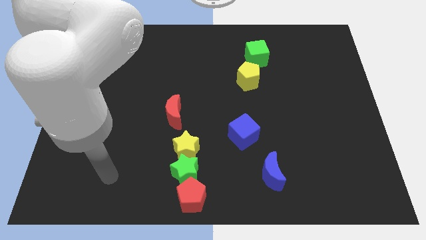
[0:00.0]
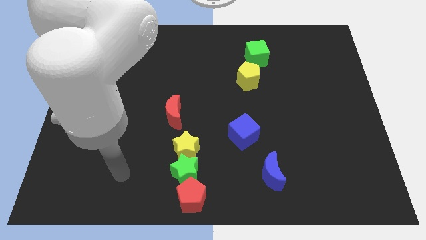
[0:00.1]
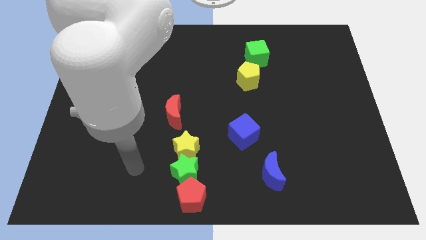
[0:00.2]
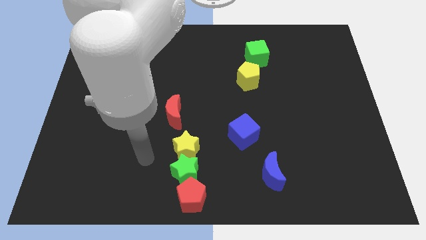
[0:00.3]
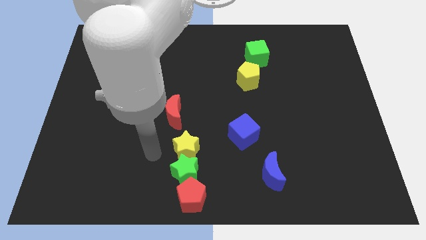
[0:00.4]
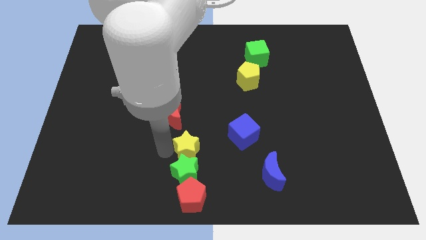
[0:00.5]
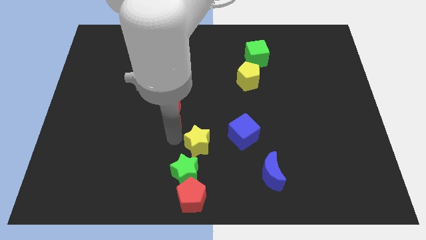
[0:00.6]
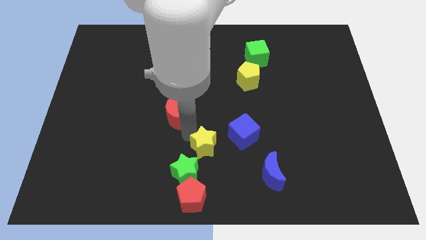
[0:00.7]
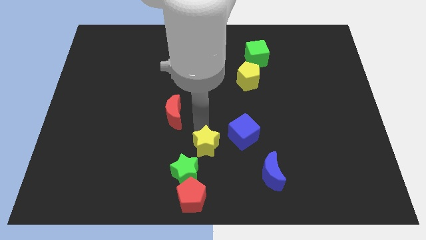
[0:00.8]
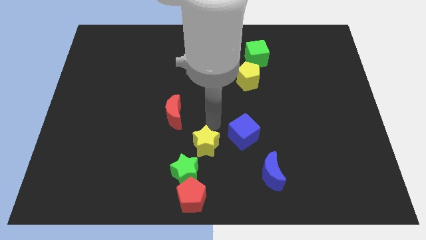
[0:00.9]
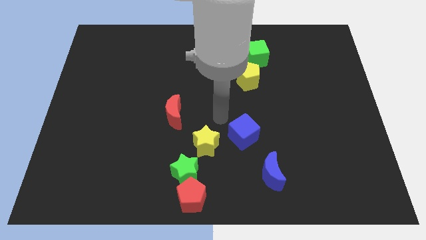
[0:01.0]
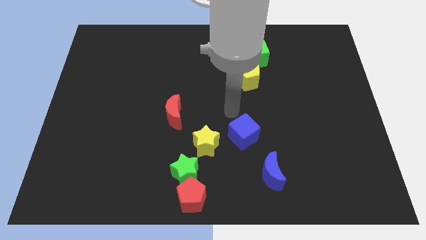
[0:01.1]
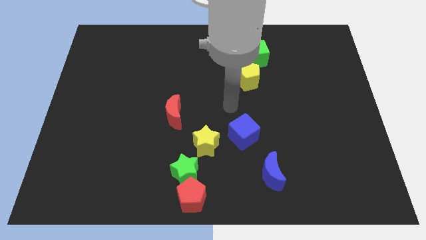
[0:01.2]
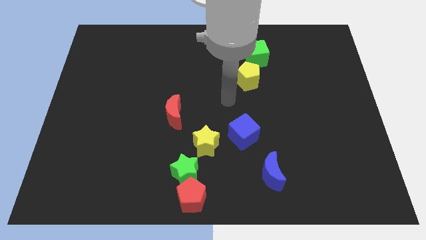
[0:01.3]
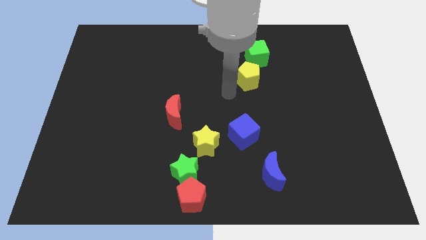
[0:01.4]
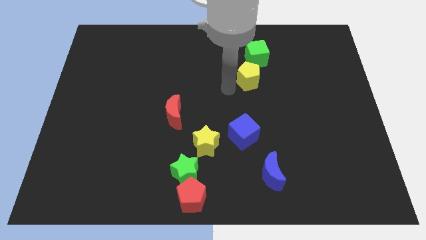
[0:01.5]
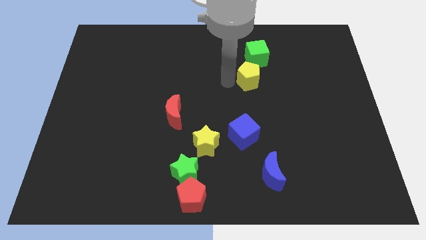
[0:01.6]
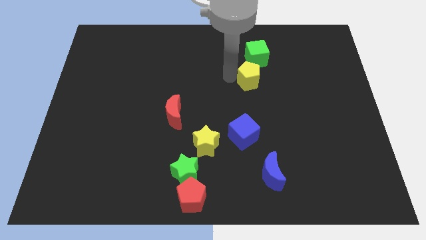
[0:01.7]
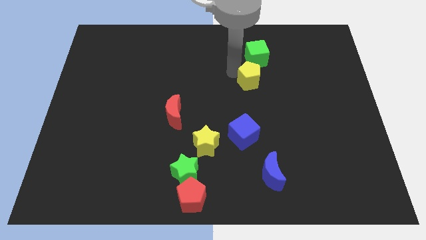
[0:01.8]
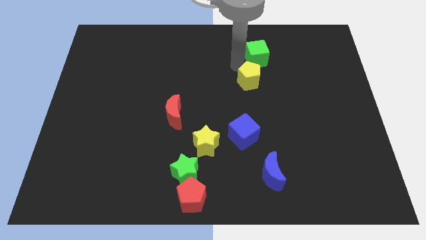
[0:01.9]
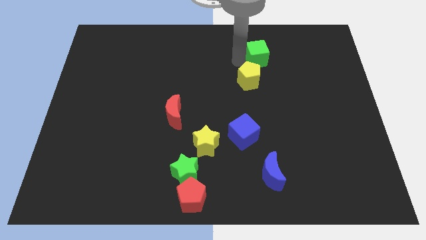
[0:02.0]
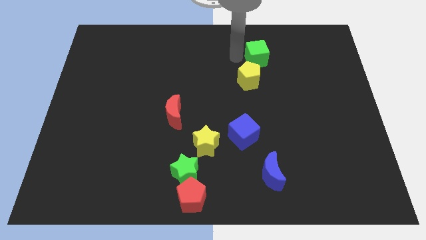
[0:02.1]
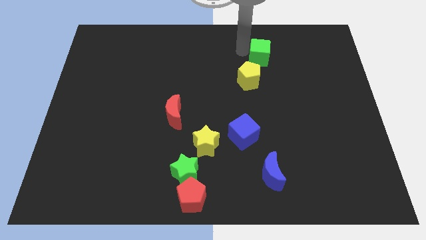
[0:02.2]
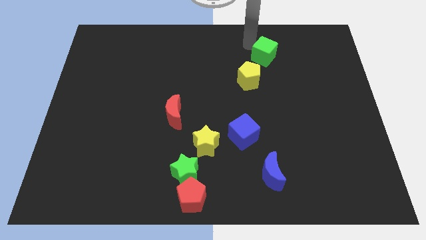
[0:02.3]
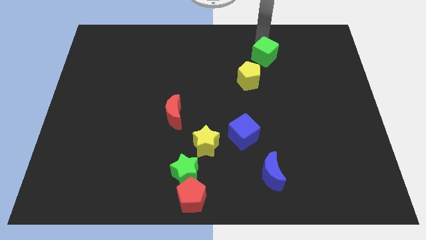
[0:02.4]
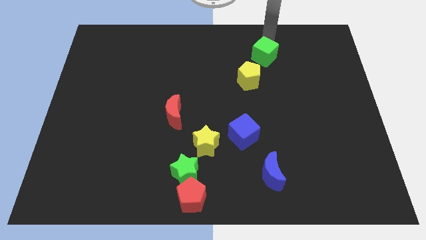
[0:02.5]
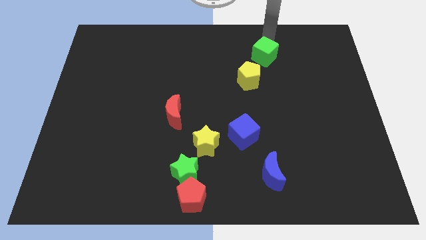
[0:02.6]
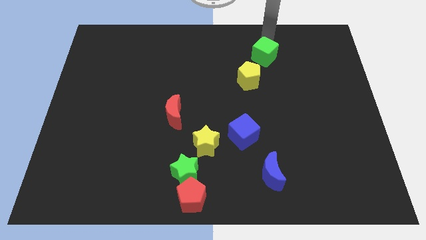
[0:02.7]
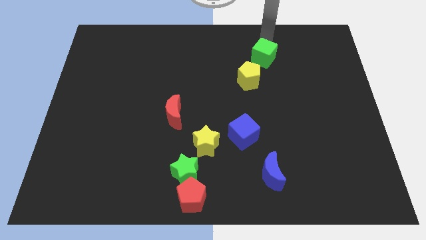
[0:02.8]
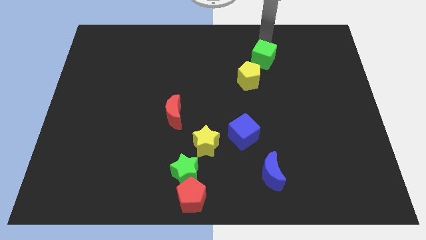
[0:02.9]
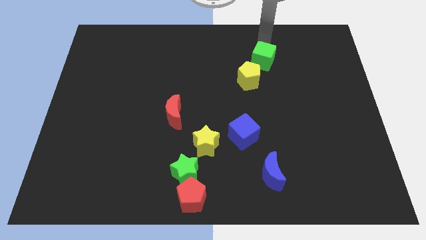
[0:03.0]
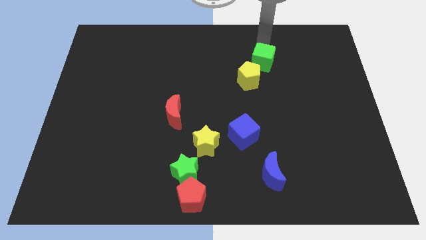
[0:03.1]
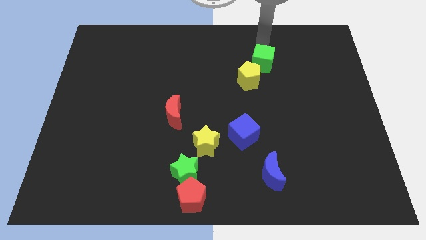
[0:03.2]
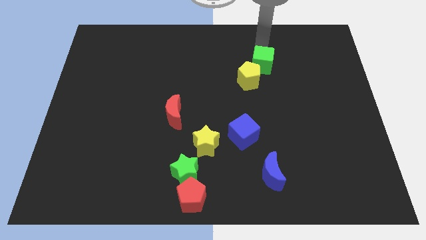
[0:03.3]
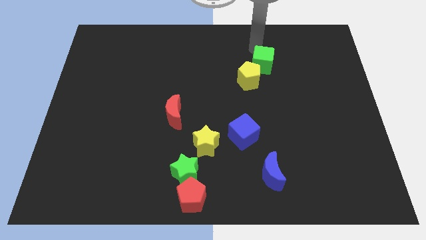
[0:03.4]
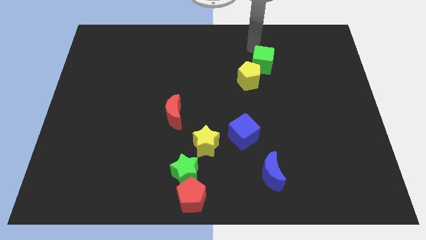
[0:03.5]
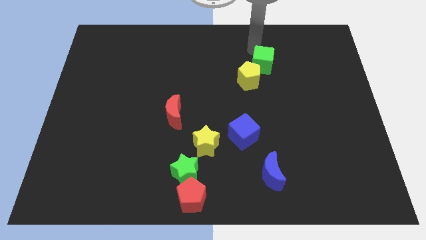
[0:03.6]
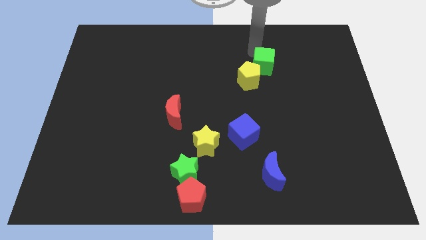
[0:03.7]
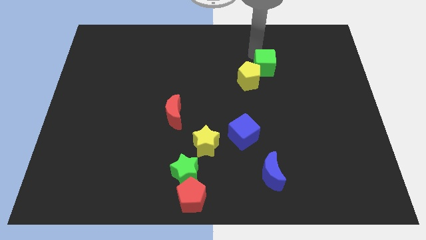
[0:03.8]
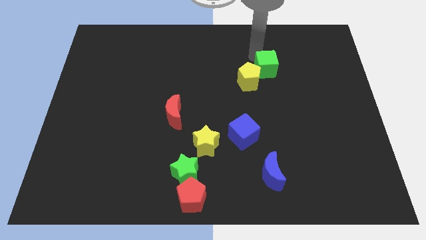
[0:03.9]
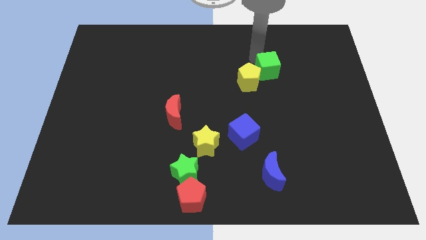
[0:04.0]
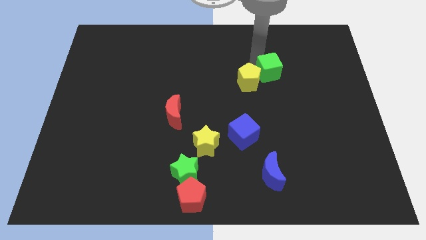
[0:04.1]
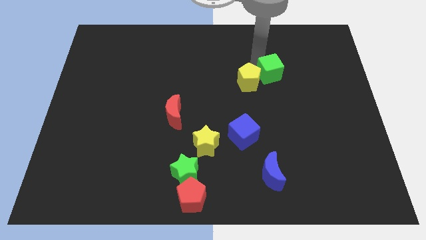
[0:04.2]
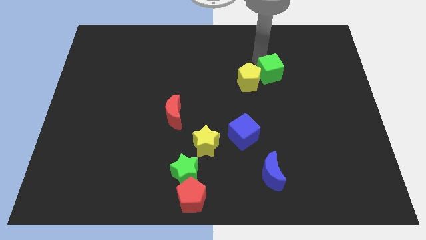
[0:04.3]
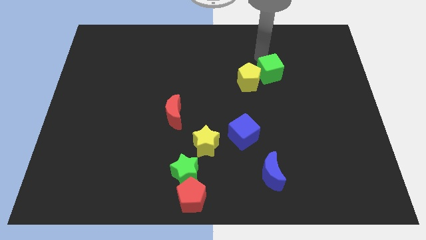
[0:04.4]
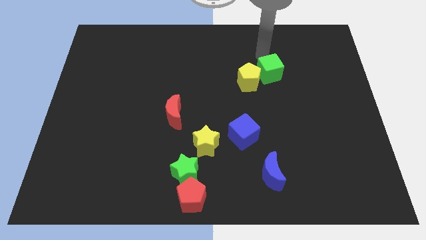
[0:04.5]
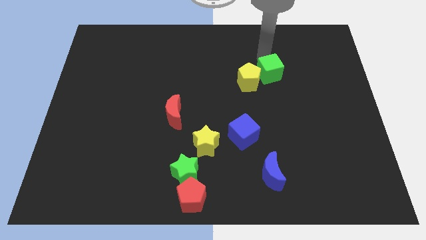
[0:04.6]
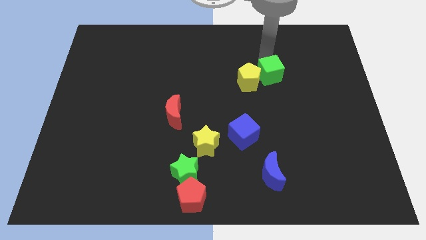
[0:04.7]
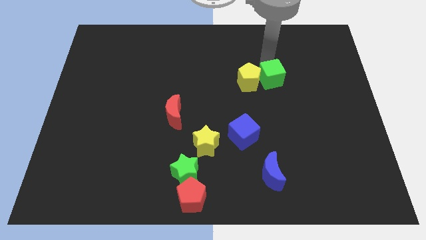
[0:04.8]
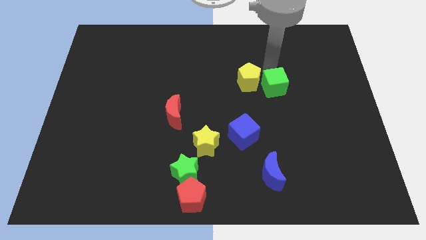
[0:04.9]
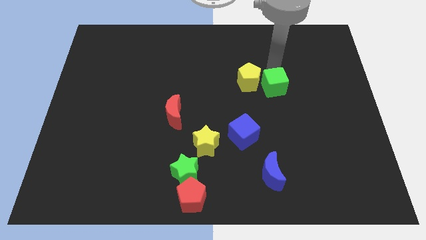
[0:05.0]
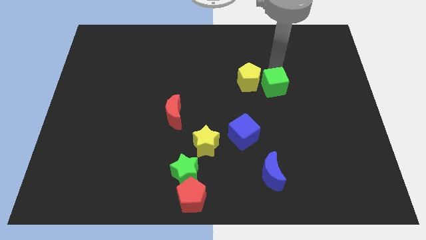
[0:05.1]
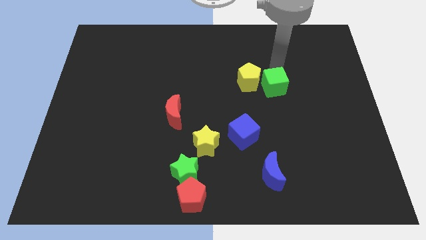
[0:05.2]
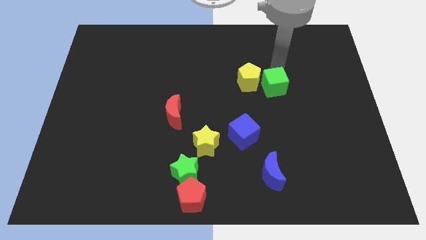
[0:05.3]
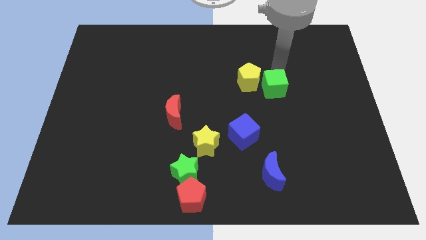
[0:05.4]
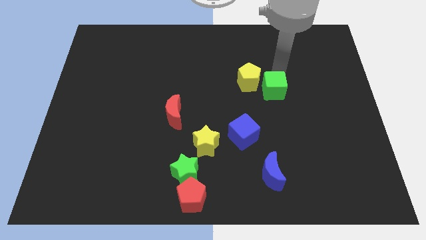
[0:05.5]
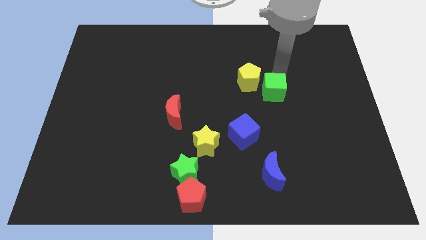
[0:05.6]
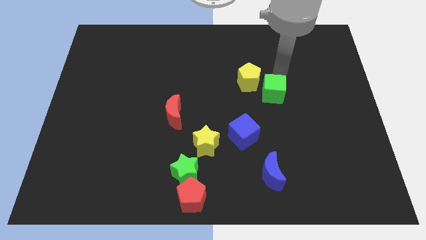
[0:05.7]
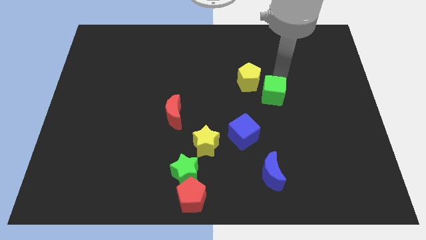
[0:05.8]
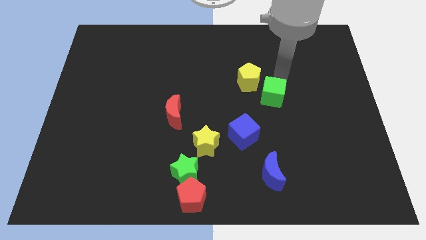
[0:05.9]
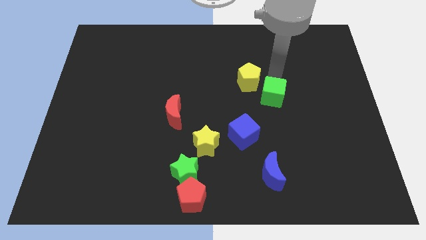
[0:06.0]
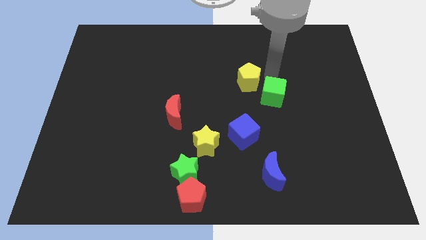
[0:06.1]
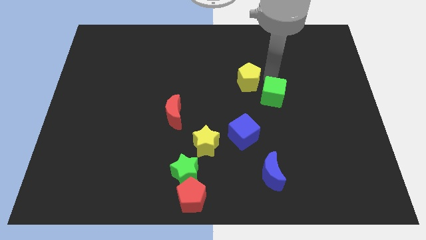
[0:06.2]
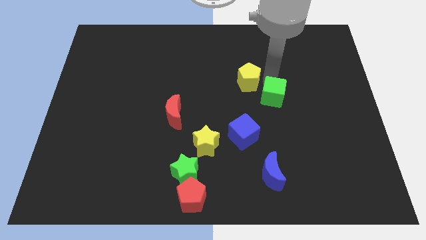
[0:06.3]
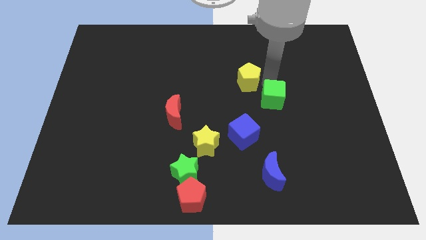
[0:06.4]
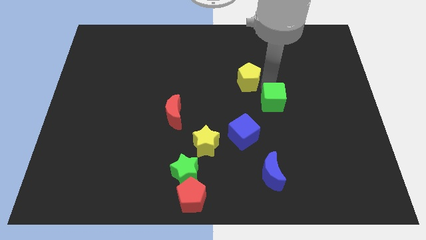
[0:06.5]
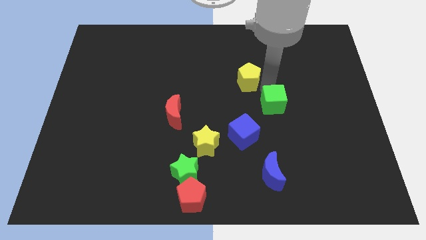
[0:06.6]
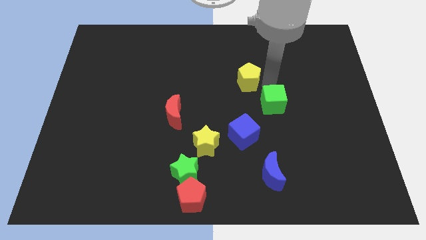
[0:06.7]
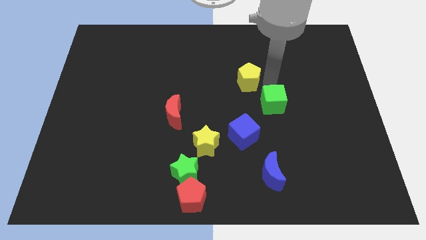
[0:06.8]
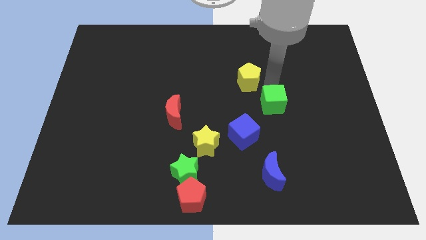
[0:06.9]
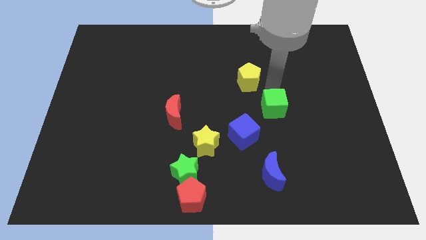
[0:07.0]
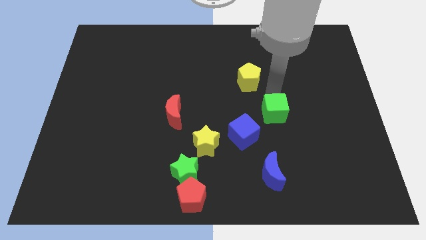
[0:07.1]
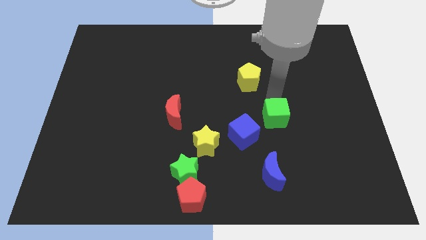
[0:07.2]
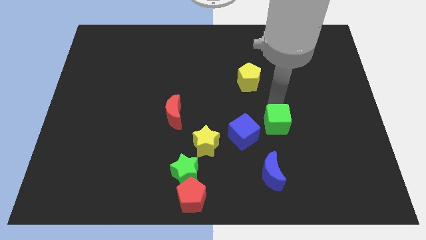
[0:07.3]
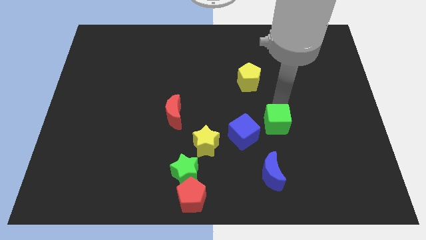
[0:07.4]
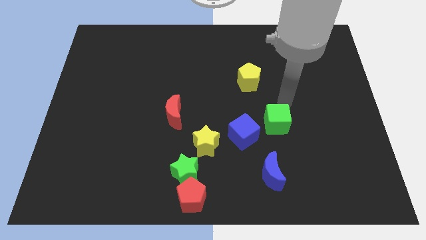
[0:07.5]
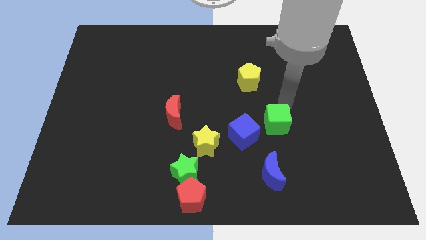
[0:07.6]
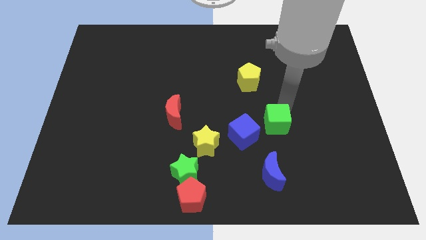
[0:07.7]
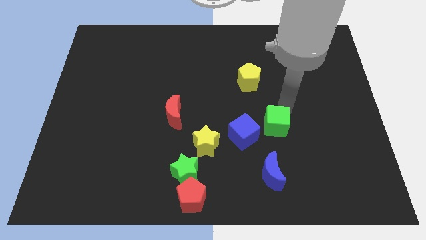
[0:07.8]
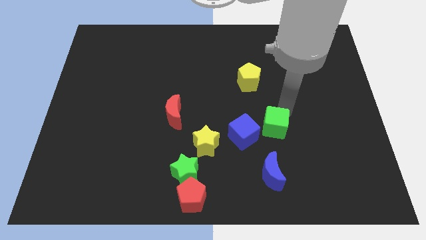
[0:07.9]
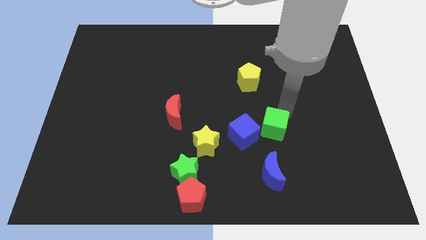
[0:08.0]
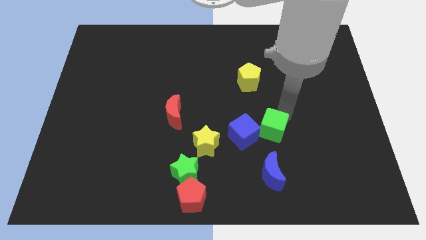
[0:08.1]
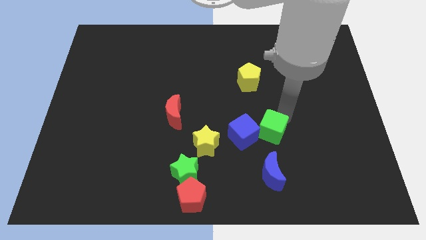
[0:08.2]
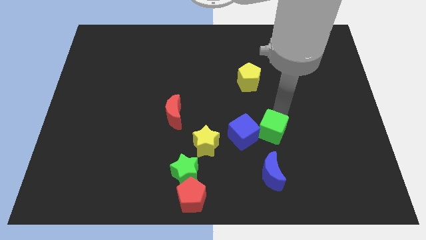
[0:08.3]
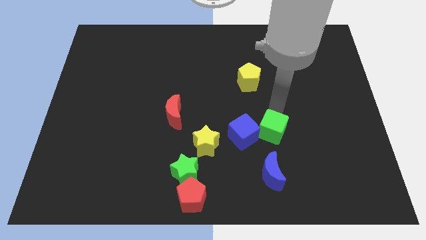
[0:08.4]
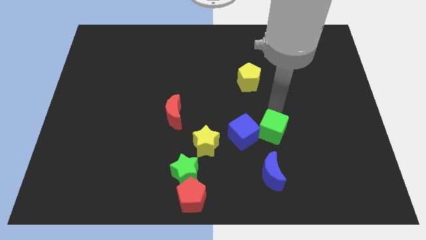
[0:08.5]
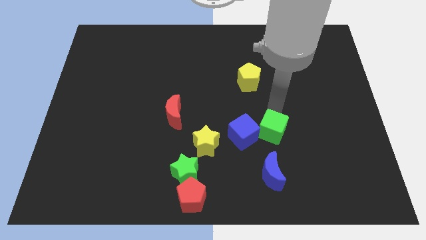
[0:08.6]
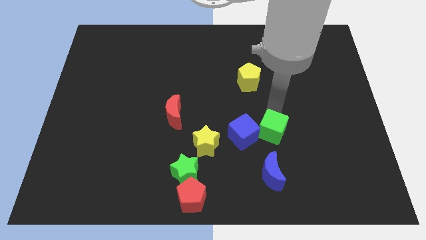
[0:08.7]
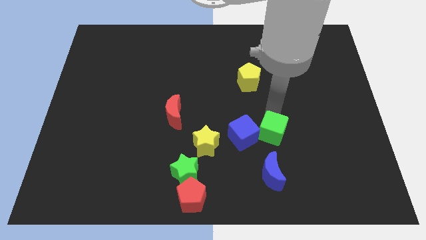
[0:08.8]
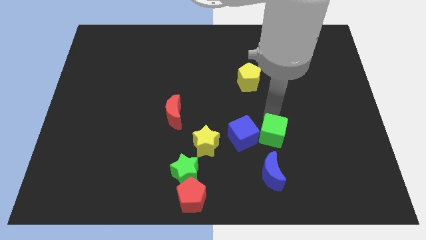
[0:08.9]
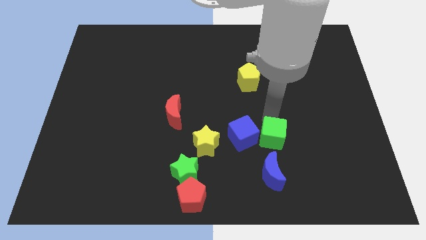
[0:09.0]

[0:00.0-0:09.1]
slide the green cube to the bottom right of the blue cube
